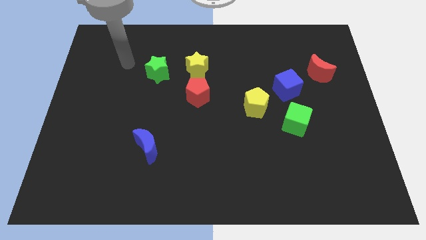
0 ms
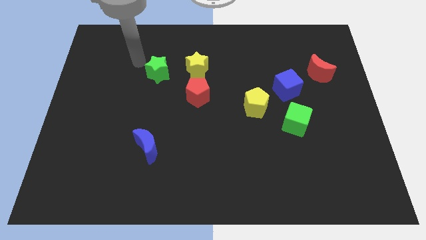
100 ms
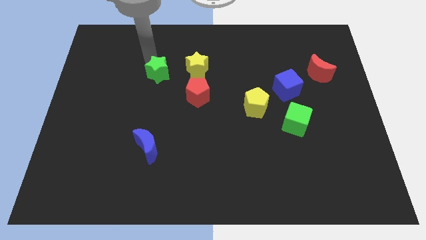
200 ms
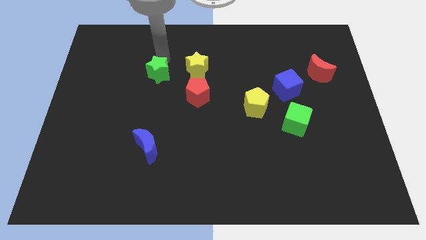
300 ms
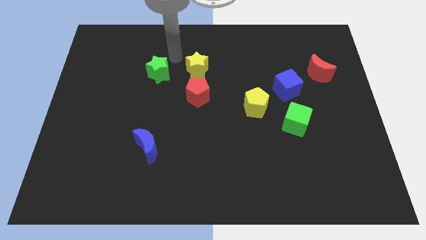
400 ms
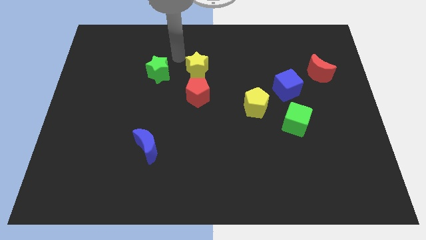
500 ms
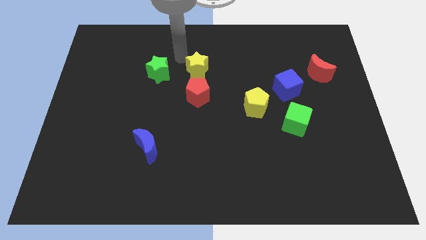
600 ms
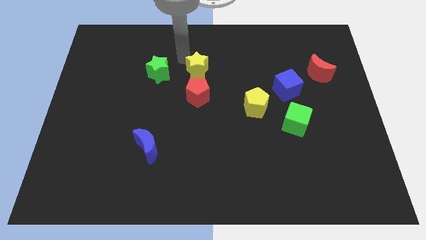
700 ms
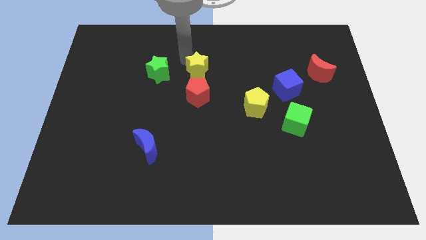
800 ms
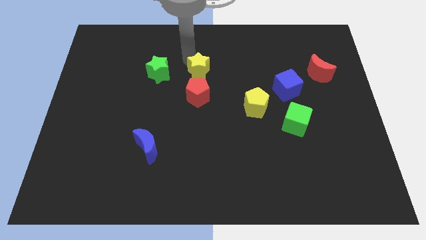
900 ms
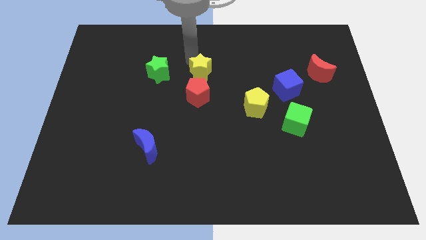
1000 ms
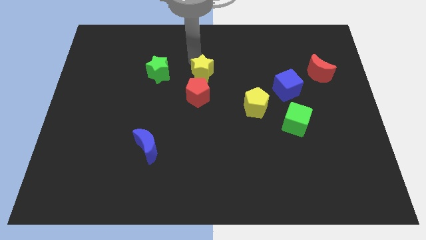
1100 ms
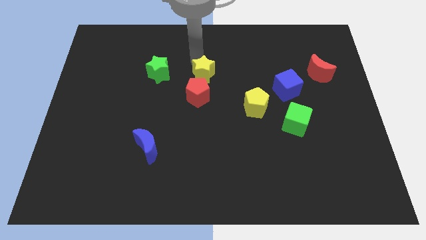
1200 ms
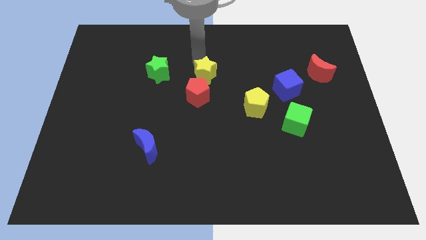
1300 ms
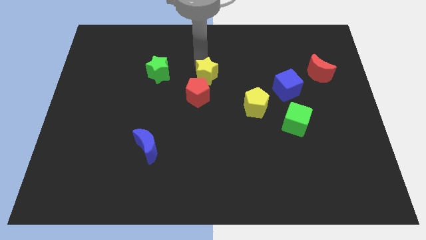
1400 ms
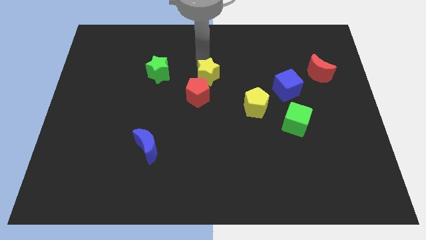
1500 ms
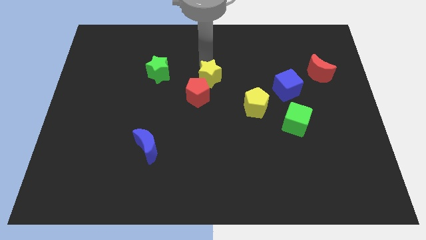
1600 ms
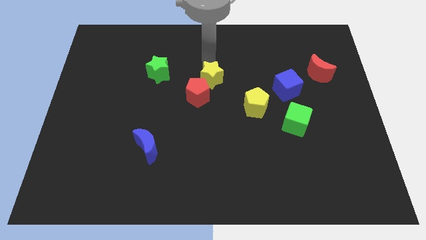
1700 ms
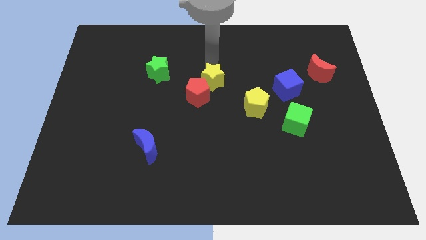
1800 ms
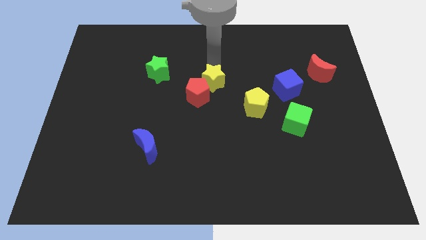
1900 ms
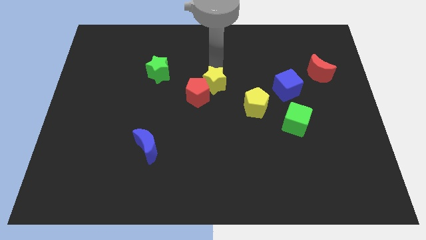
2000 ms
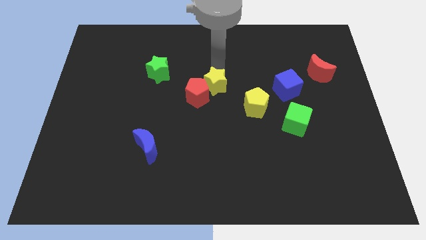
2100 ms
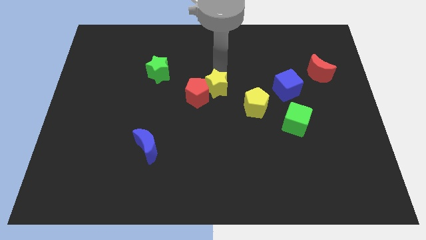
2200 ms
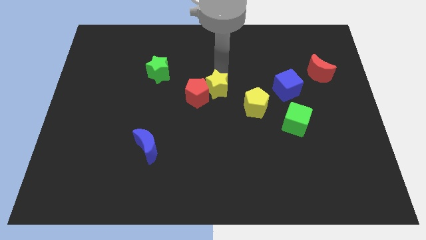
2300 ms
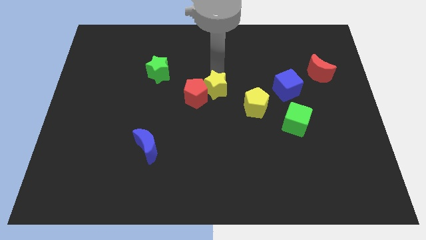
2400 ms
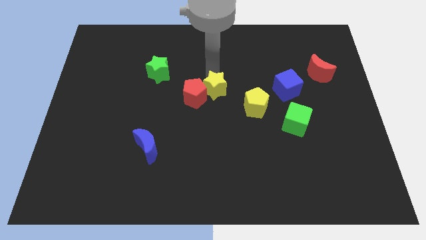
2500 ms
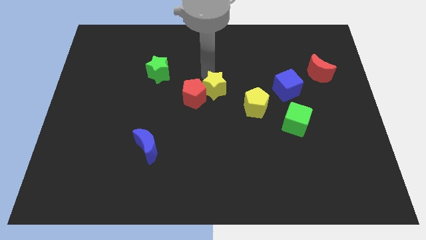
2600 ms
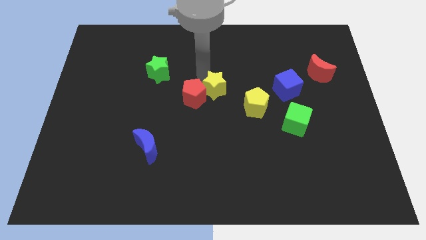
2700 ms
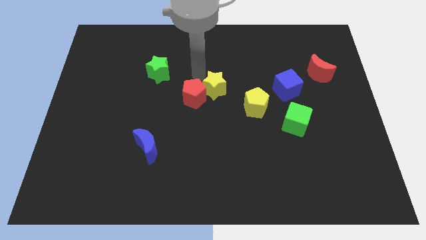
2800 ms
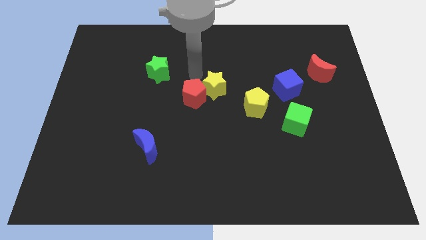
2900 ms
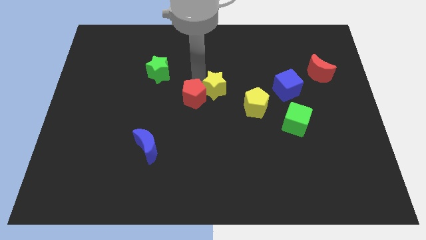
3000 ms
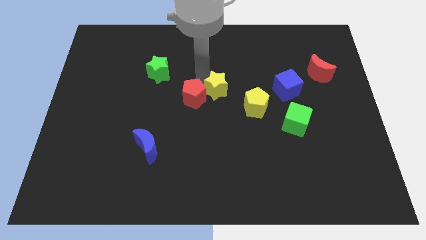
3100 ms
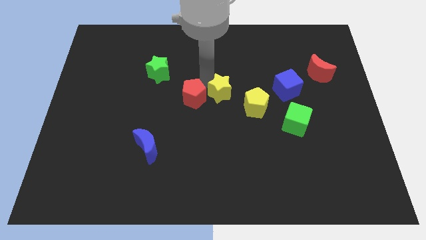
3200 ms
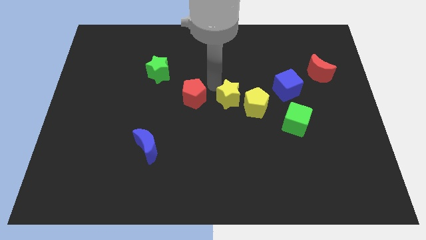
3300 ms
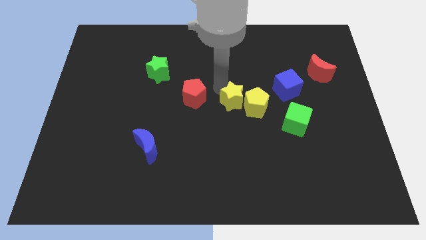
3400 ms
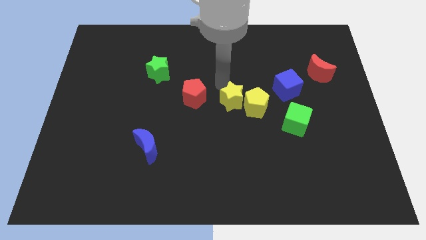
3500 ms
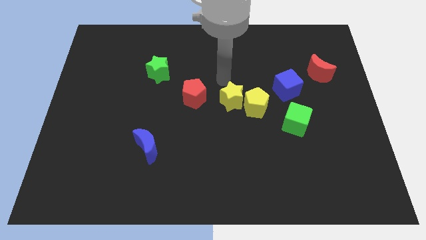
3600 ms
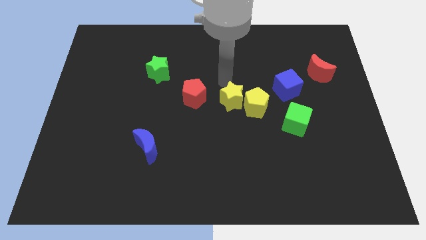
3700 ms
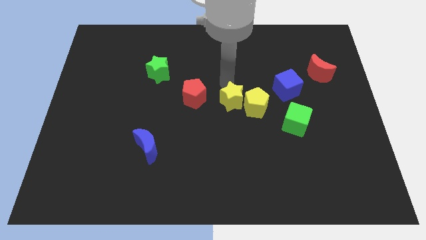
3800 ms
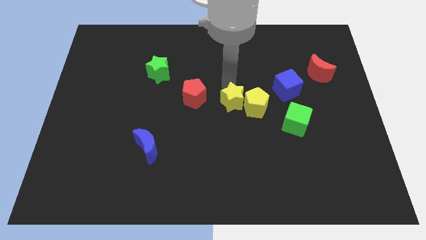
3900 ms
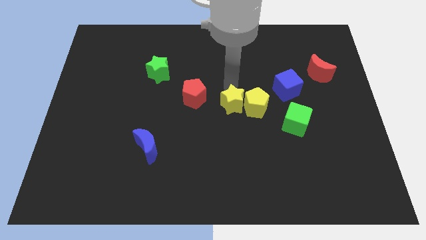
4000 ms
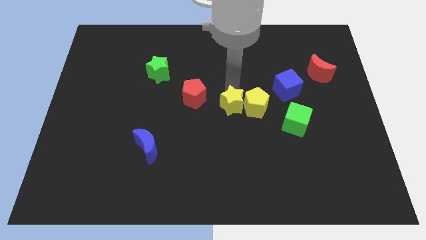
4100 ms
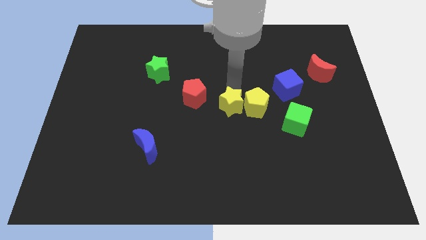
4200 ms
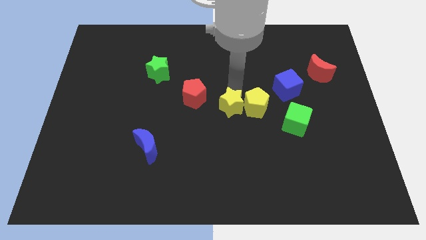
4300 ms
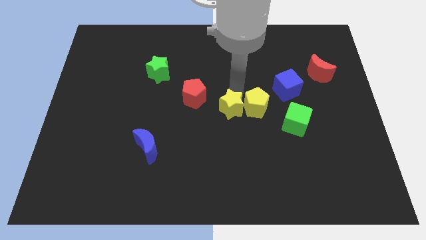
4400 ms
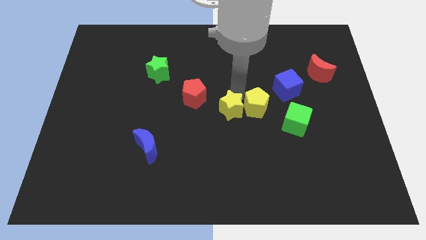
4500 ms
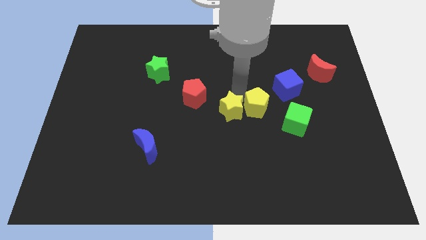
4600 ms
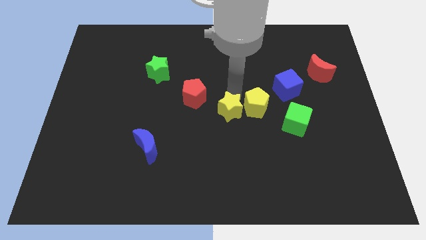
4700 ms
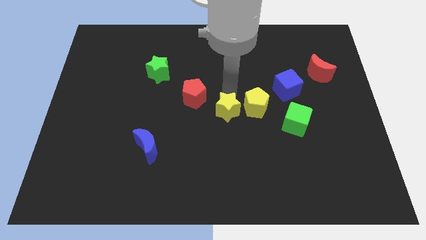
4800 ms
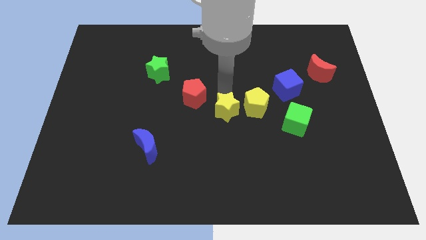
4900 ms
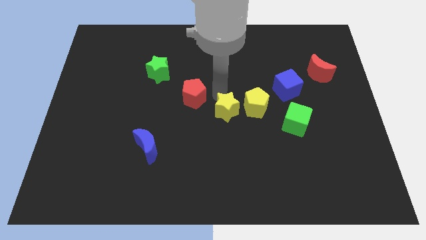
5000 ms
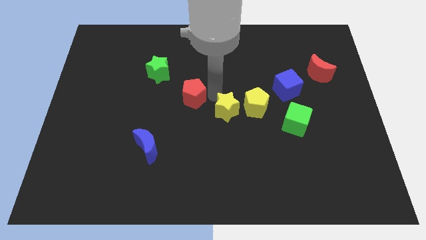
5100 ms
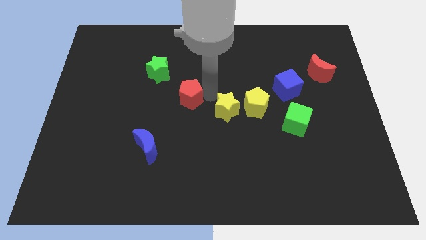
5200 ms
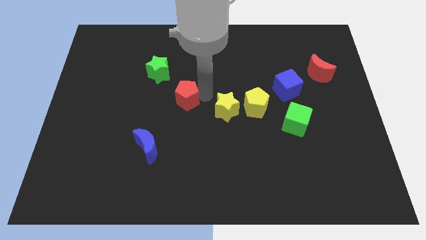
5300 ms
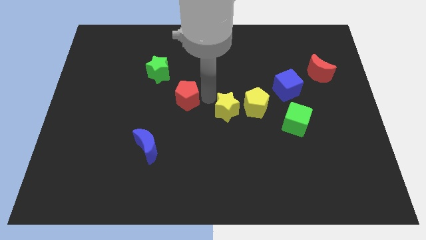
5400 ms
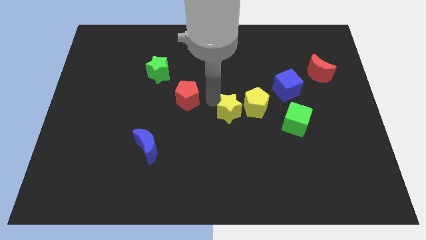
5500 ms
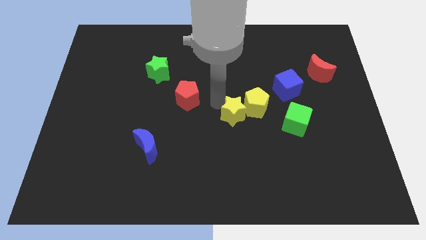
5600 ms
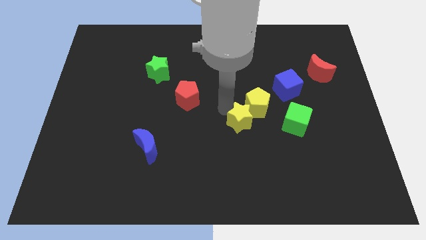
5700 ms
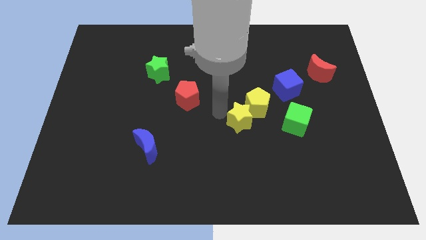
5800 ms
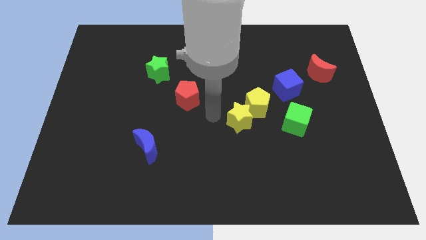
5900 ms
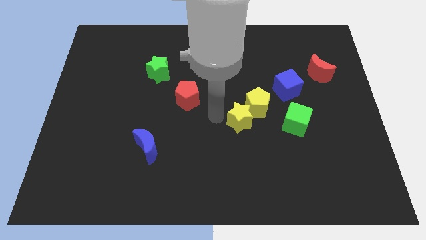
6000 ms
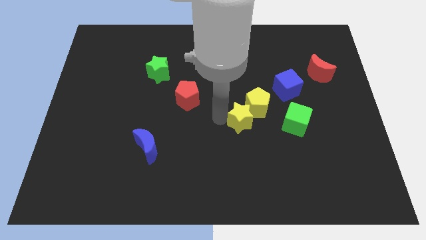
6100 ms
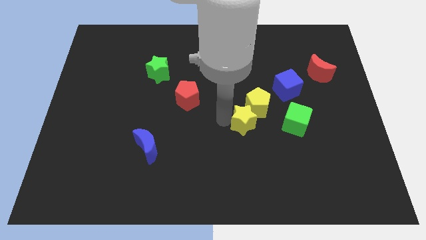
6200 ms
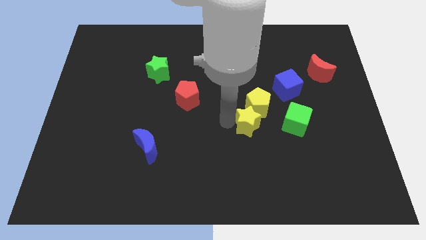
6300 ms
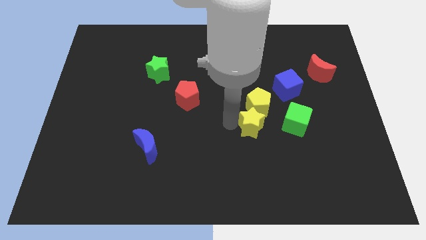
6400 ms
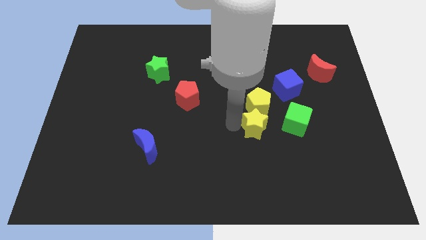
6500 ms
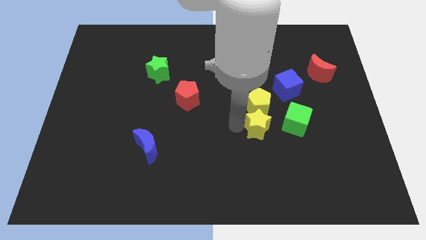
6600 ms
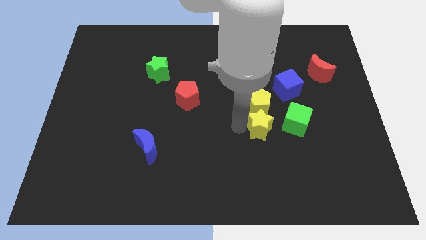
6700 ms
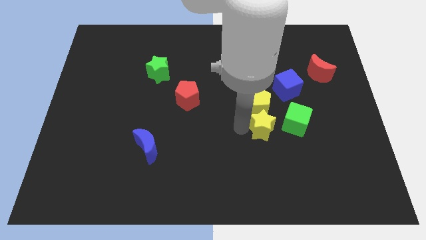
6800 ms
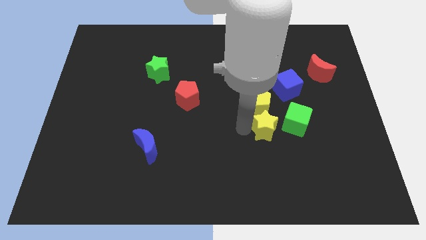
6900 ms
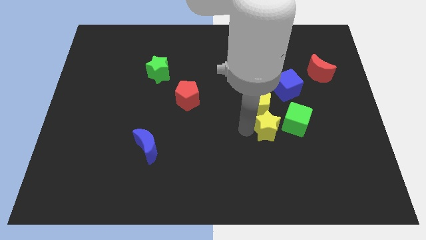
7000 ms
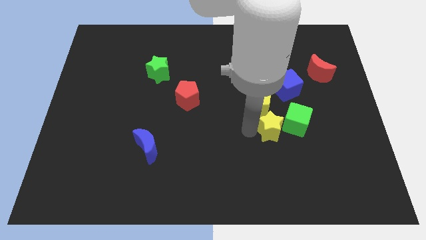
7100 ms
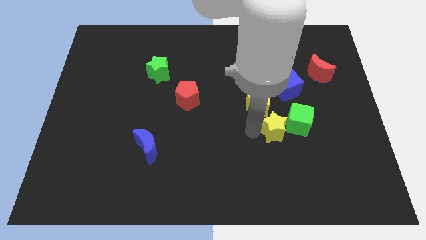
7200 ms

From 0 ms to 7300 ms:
put the yellow star towards the green cube
